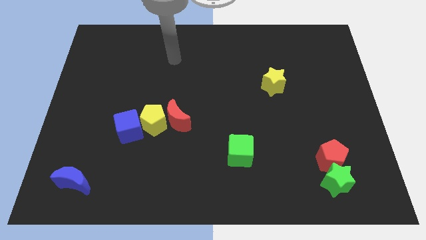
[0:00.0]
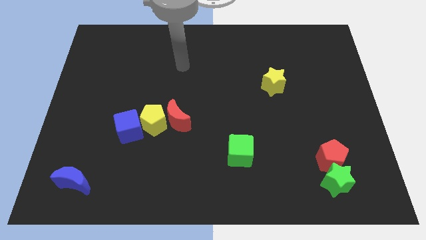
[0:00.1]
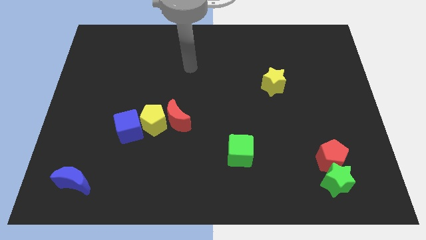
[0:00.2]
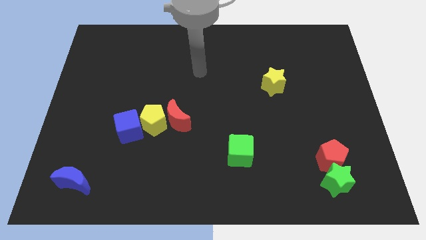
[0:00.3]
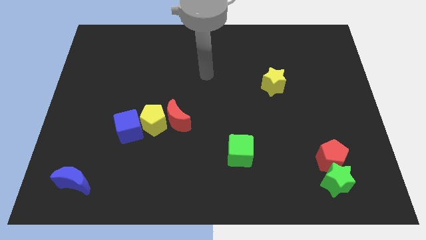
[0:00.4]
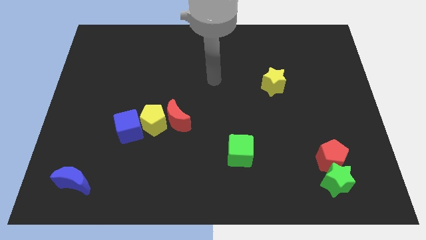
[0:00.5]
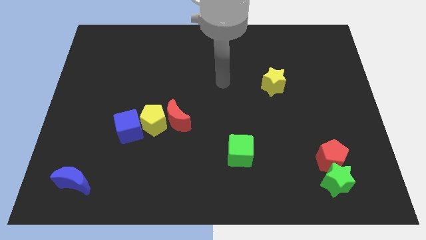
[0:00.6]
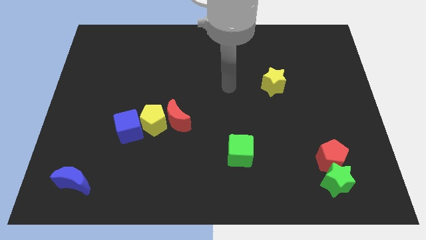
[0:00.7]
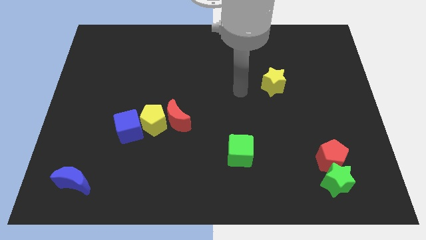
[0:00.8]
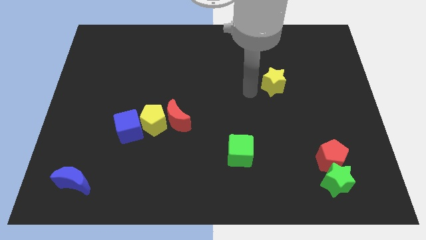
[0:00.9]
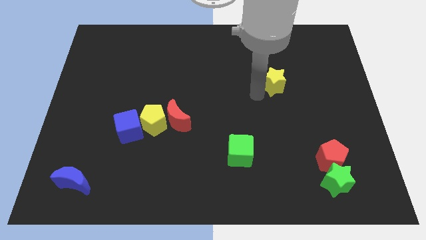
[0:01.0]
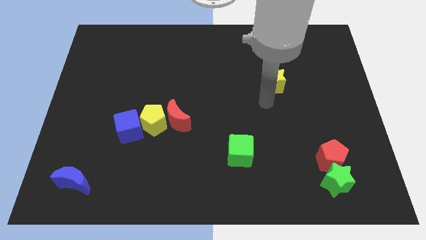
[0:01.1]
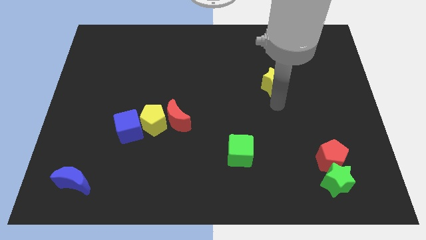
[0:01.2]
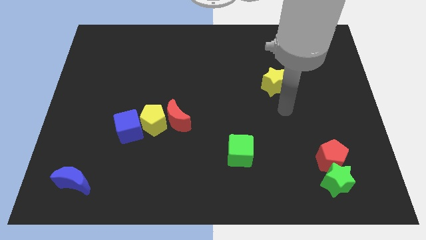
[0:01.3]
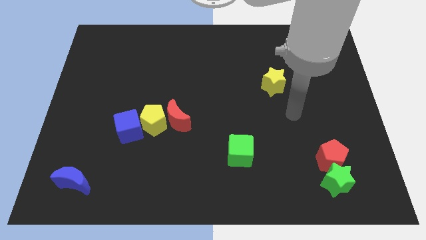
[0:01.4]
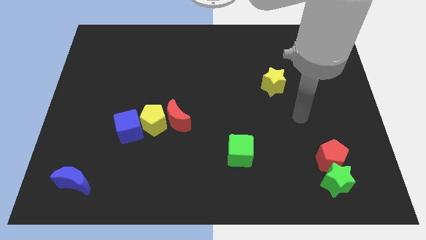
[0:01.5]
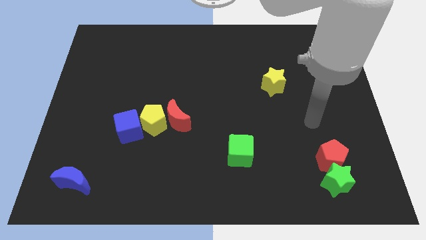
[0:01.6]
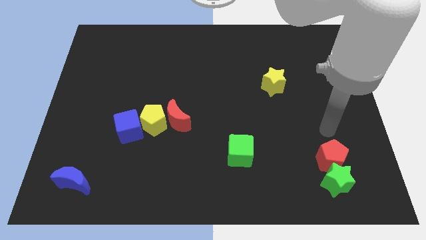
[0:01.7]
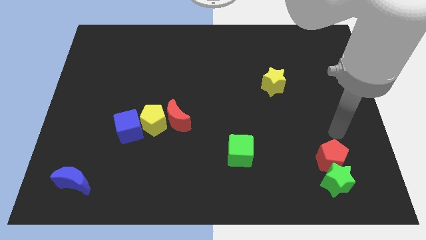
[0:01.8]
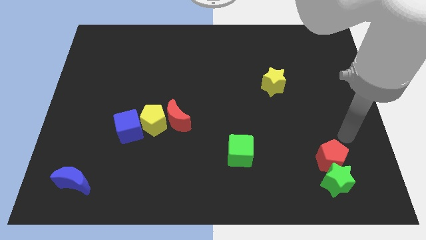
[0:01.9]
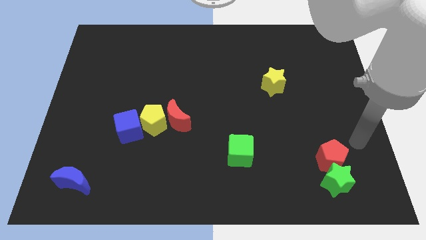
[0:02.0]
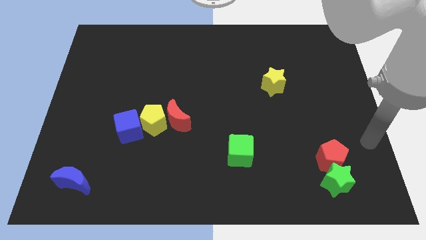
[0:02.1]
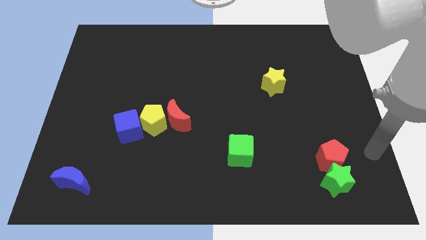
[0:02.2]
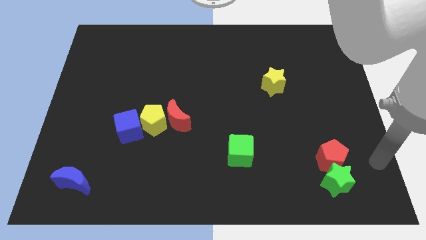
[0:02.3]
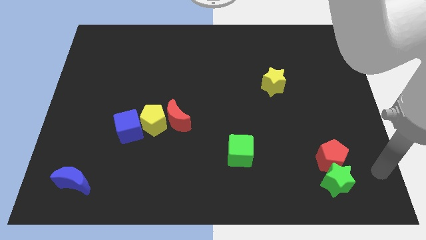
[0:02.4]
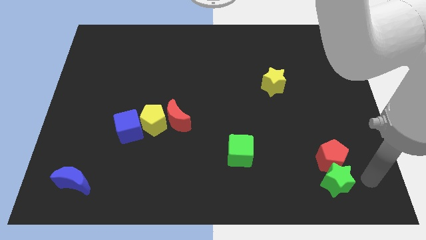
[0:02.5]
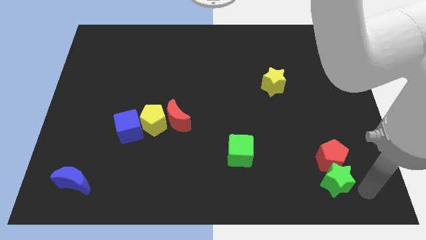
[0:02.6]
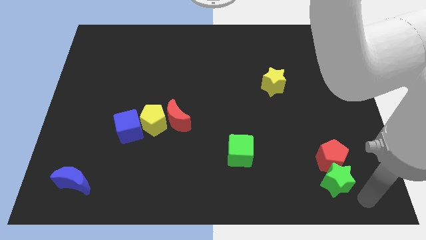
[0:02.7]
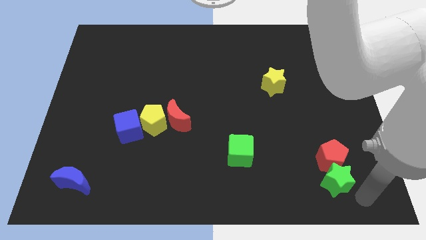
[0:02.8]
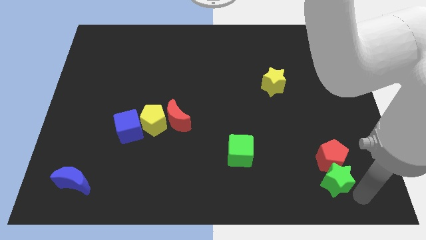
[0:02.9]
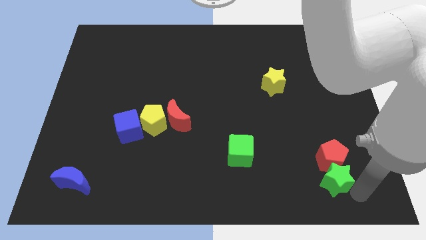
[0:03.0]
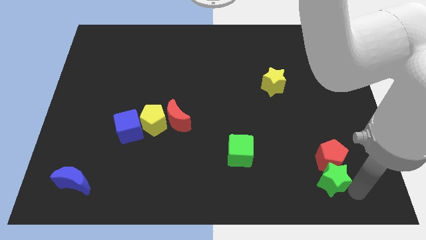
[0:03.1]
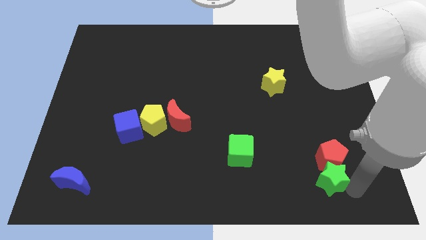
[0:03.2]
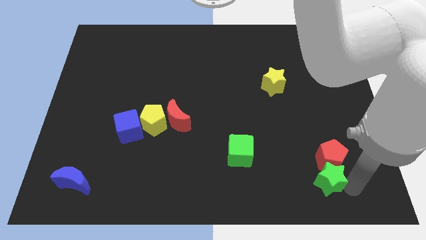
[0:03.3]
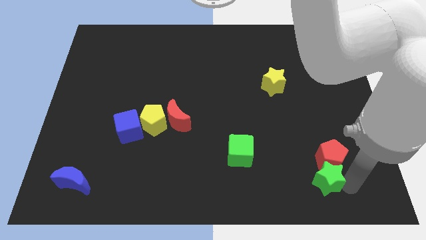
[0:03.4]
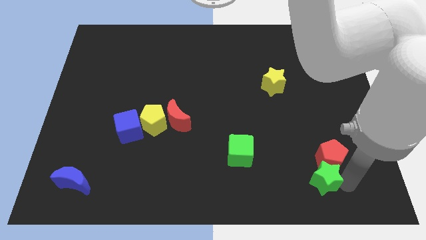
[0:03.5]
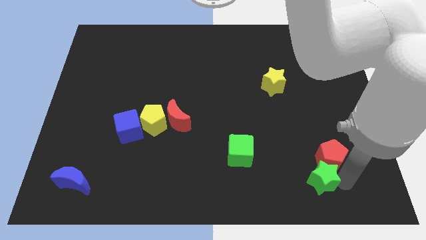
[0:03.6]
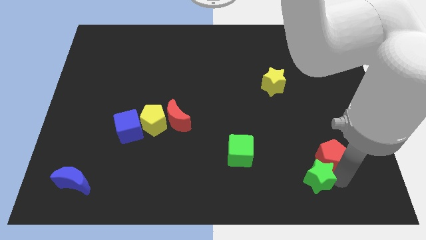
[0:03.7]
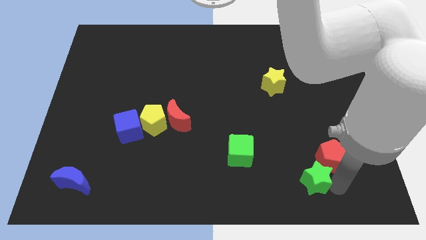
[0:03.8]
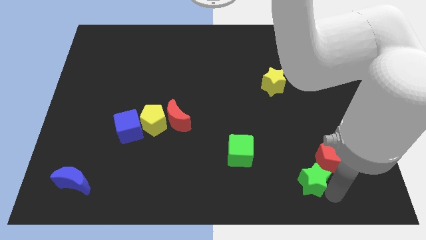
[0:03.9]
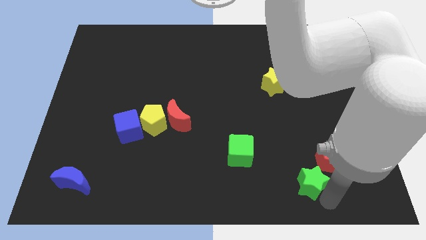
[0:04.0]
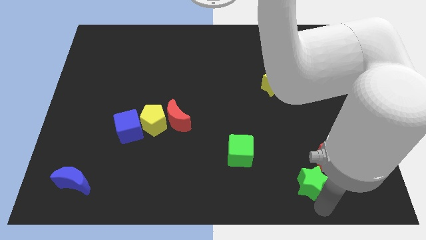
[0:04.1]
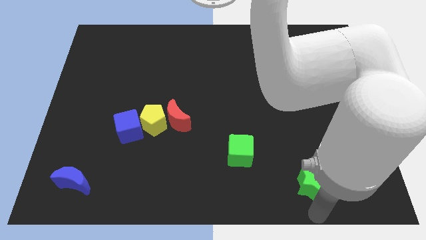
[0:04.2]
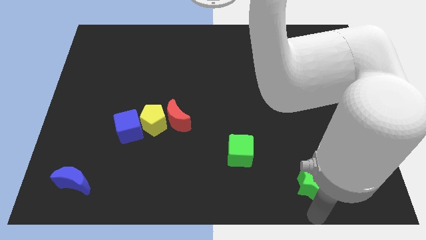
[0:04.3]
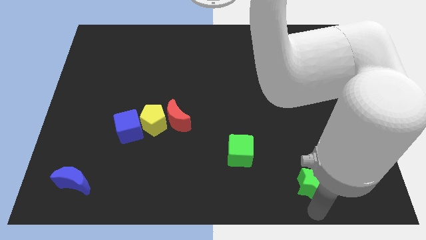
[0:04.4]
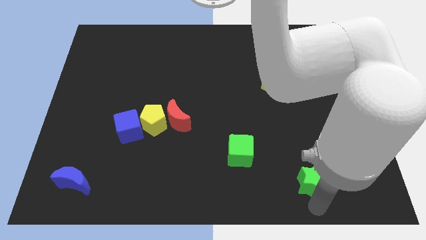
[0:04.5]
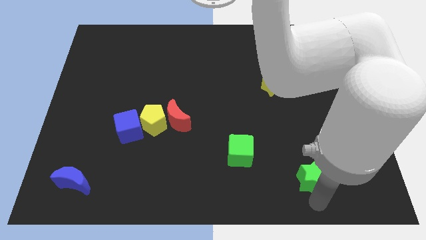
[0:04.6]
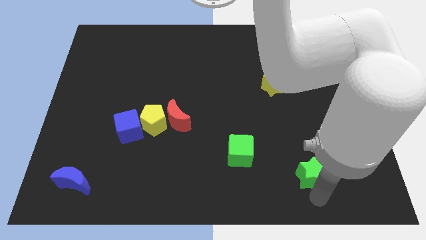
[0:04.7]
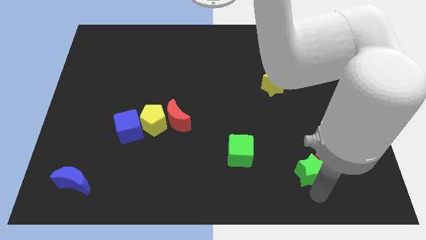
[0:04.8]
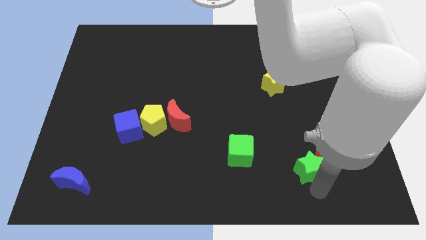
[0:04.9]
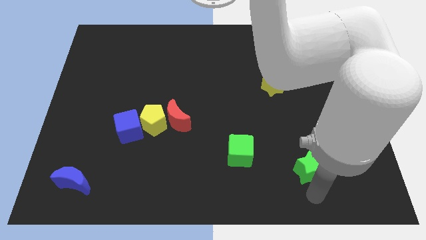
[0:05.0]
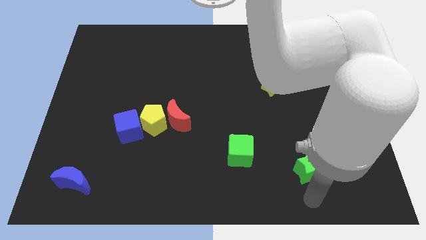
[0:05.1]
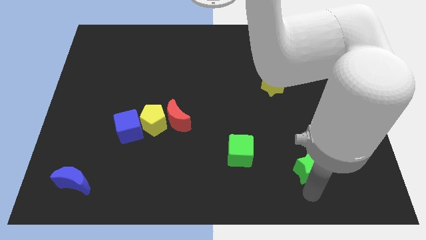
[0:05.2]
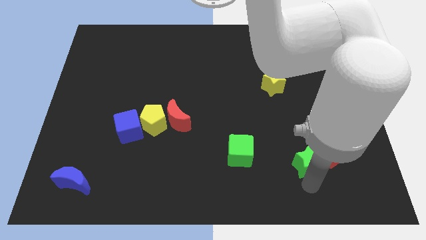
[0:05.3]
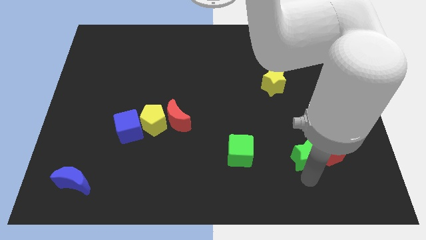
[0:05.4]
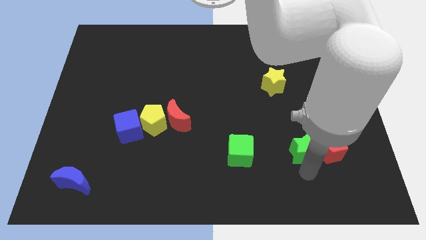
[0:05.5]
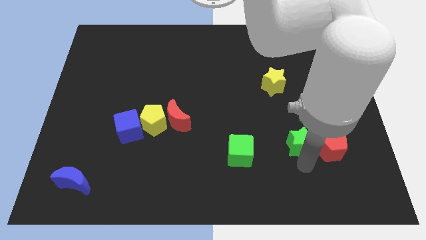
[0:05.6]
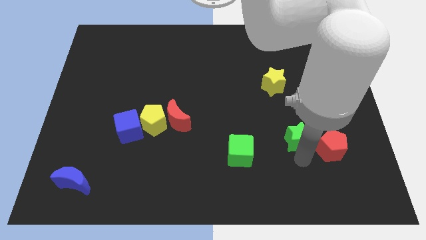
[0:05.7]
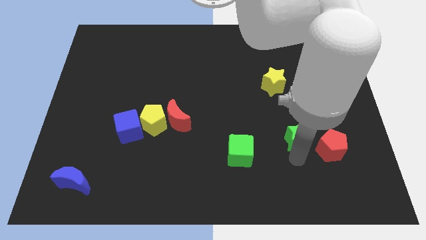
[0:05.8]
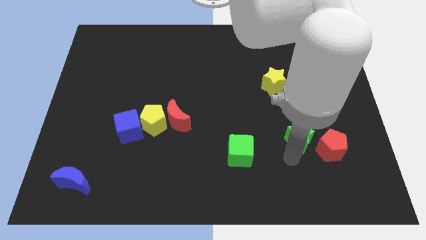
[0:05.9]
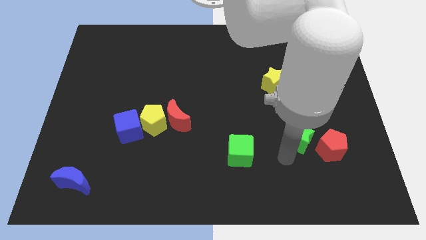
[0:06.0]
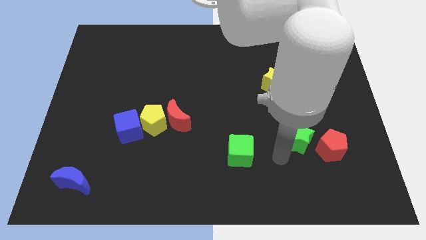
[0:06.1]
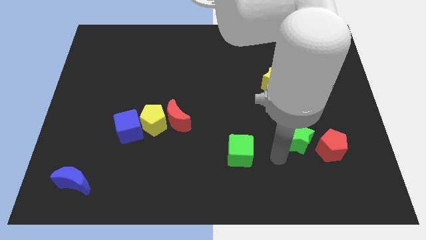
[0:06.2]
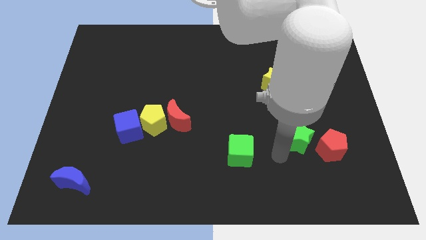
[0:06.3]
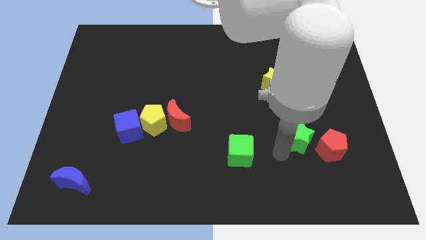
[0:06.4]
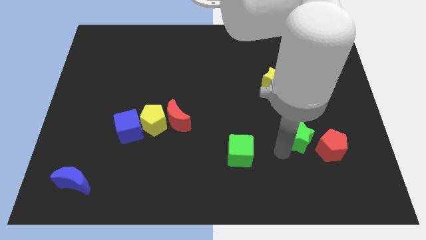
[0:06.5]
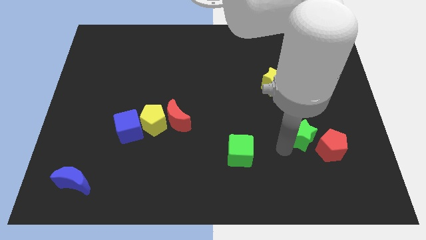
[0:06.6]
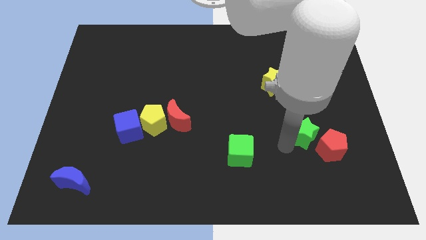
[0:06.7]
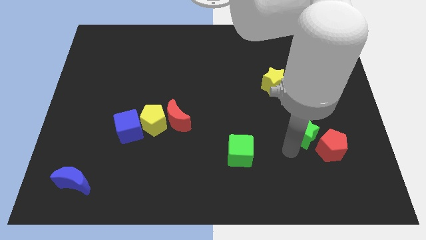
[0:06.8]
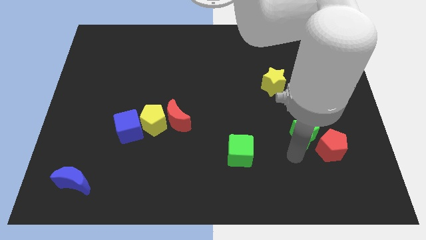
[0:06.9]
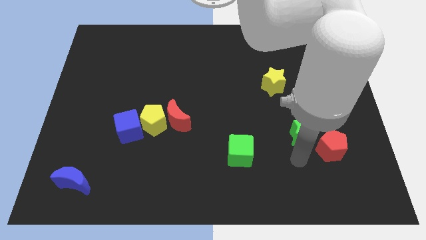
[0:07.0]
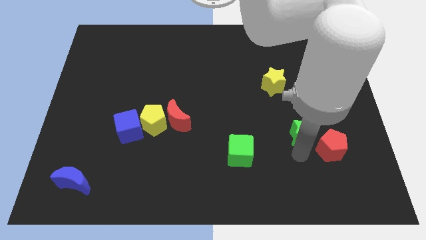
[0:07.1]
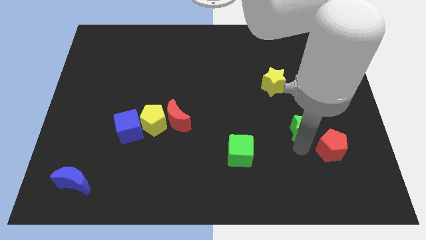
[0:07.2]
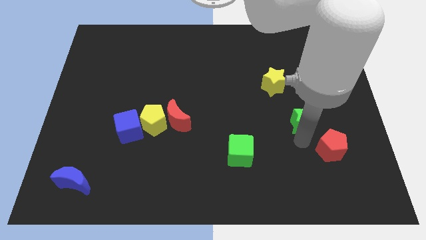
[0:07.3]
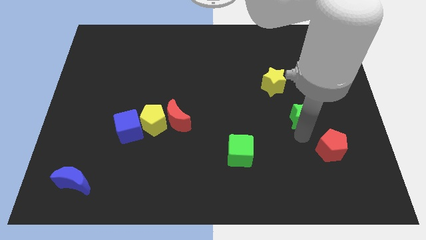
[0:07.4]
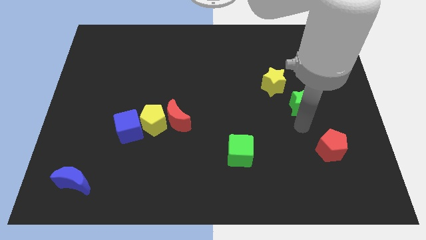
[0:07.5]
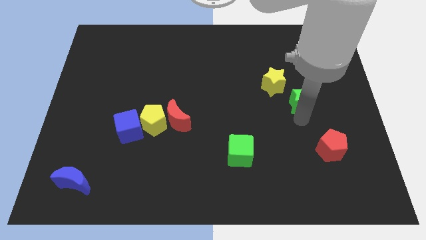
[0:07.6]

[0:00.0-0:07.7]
move the green star upwards

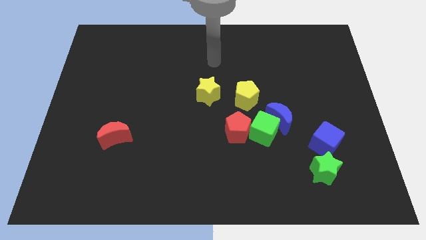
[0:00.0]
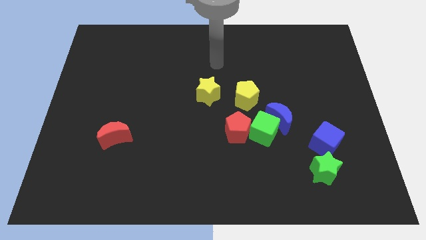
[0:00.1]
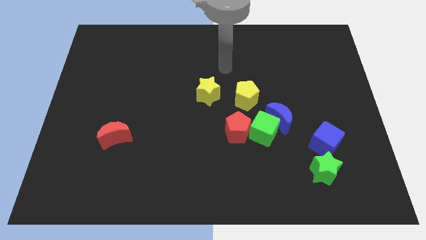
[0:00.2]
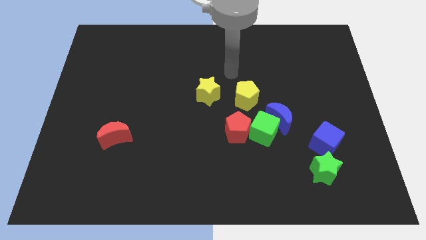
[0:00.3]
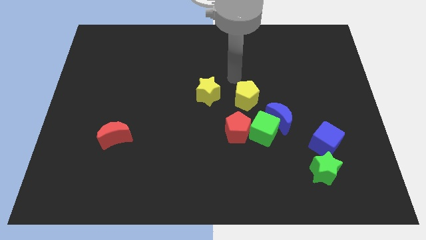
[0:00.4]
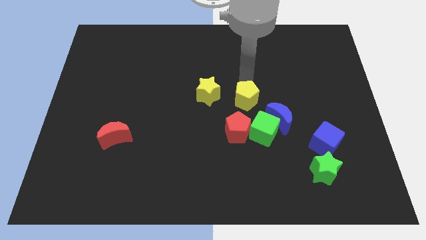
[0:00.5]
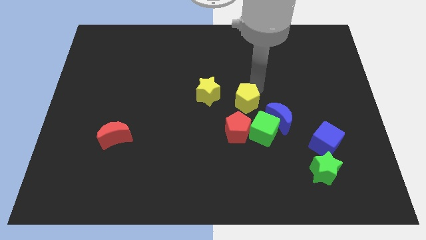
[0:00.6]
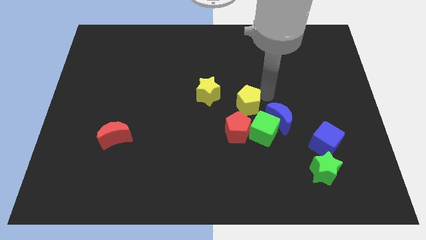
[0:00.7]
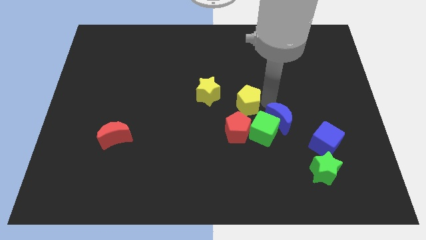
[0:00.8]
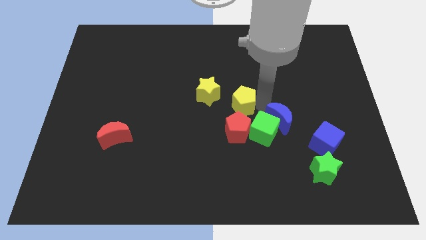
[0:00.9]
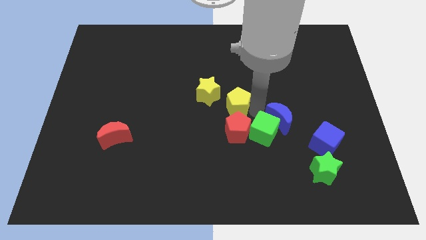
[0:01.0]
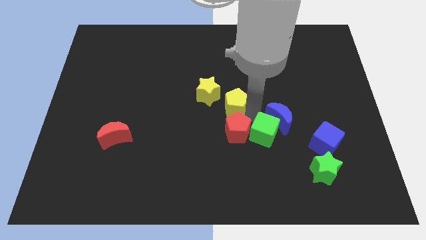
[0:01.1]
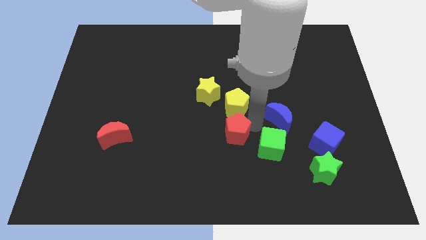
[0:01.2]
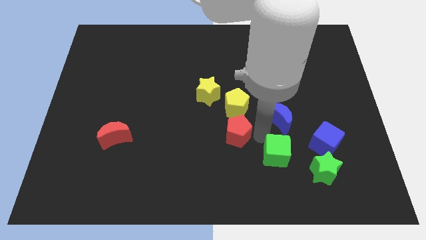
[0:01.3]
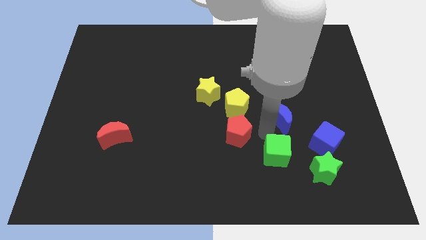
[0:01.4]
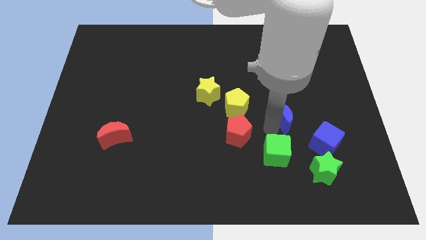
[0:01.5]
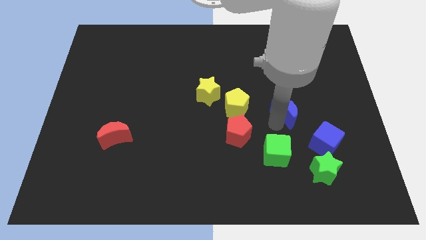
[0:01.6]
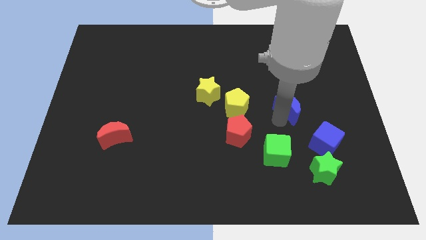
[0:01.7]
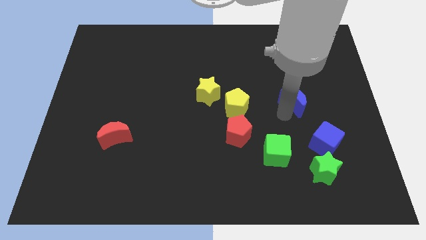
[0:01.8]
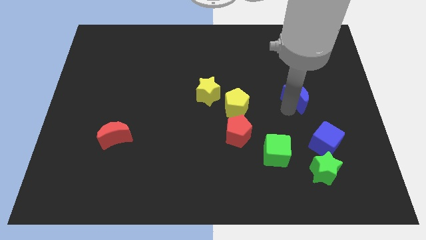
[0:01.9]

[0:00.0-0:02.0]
slightly move the blue moon upwards and right
